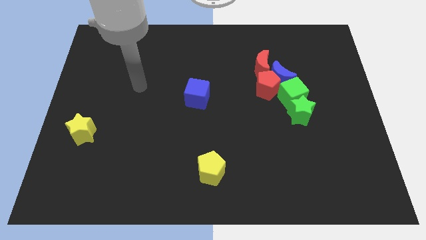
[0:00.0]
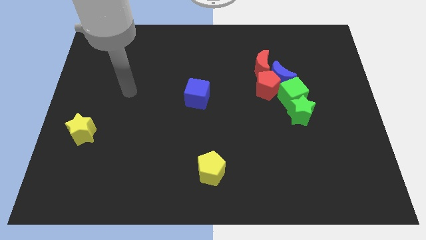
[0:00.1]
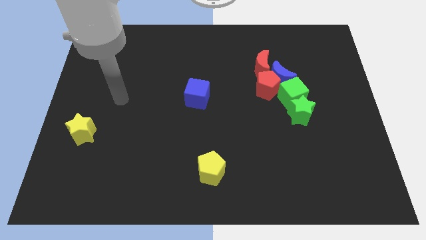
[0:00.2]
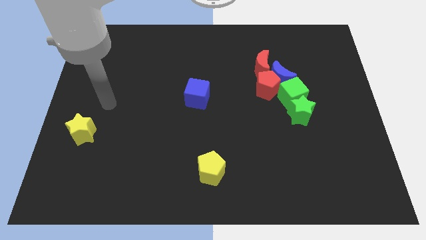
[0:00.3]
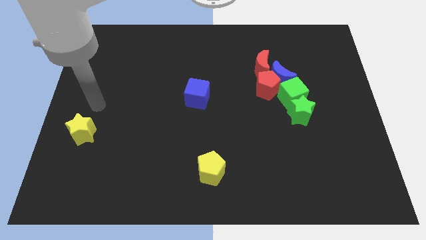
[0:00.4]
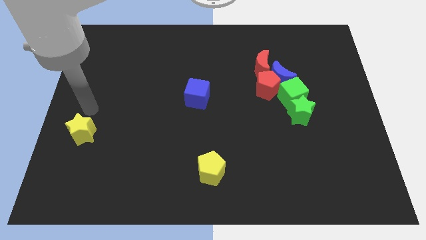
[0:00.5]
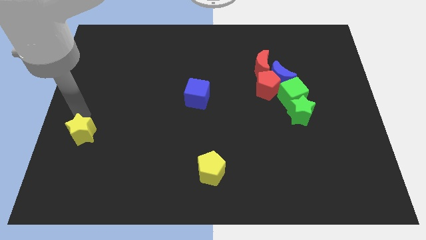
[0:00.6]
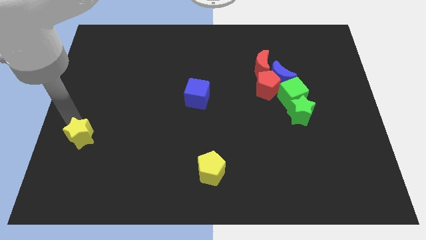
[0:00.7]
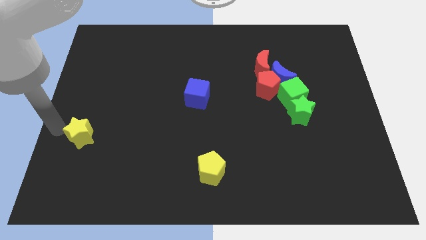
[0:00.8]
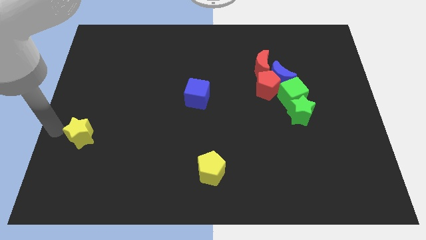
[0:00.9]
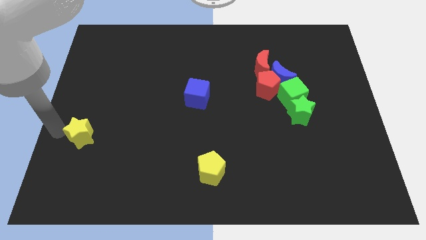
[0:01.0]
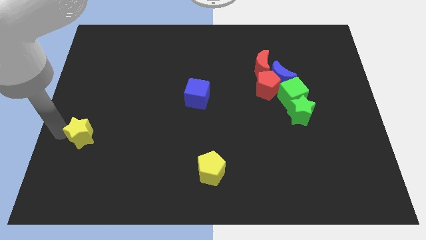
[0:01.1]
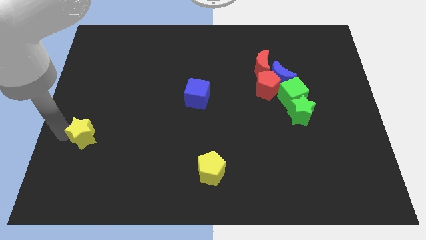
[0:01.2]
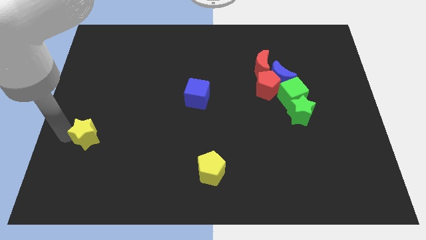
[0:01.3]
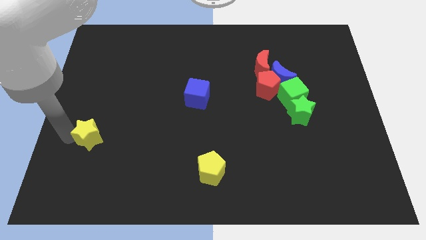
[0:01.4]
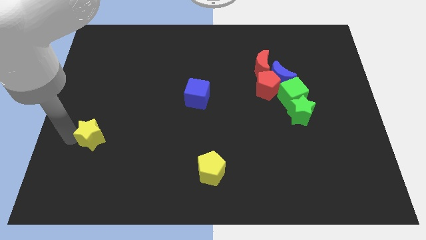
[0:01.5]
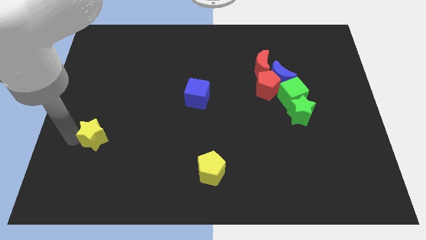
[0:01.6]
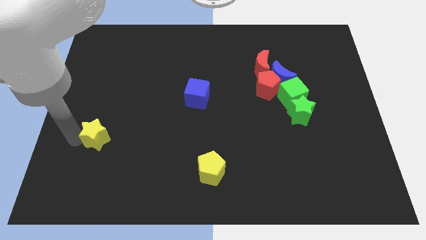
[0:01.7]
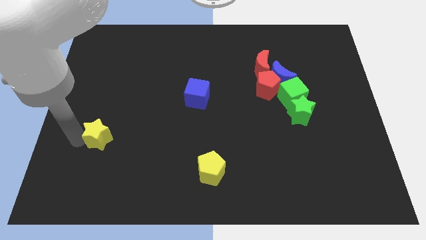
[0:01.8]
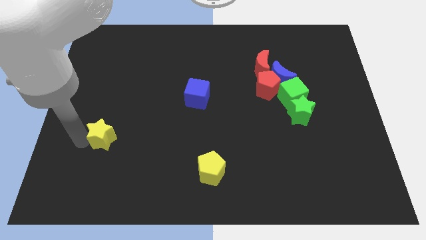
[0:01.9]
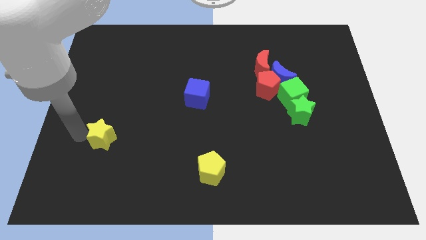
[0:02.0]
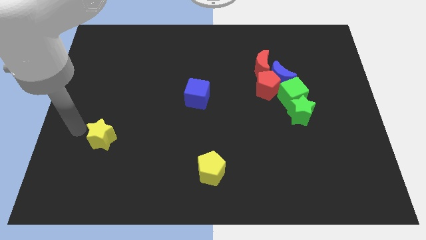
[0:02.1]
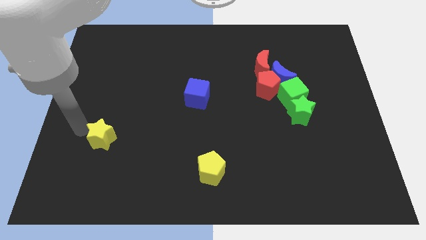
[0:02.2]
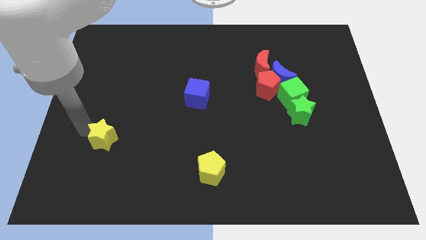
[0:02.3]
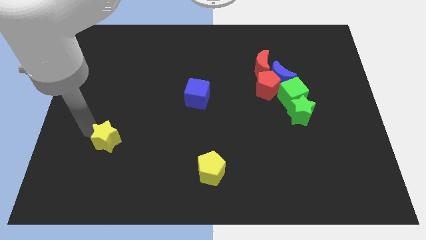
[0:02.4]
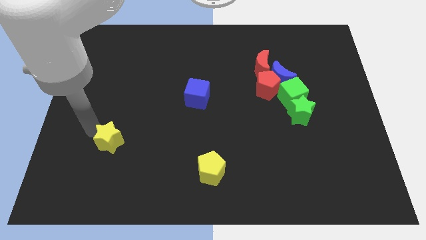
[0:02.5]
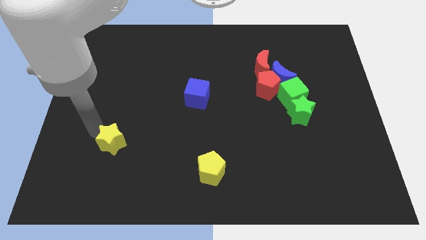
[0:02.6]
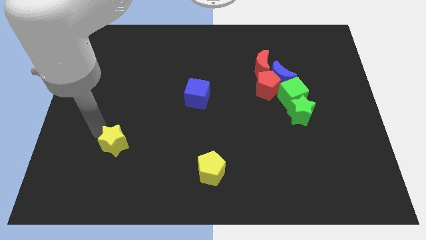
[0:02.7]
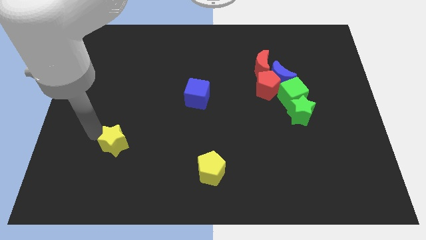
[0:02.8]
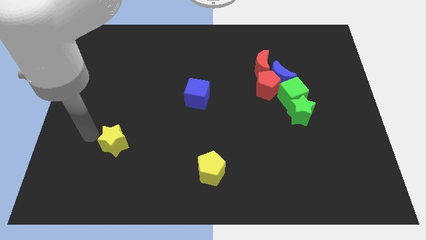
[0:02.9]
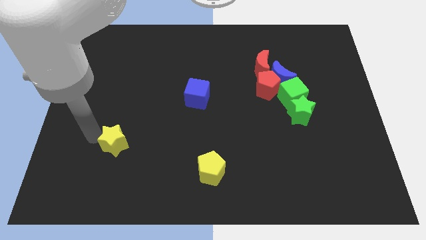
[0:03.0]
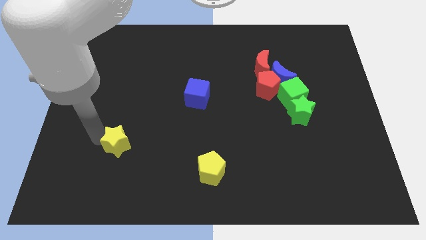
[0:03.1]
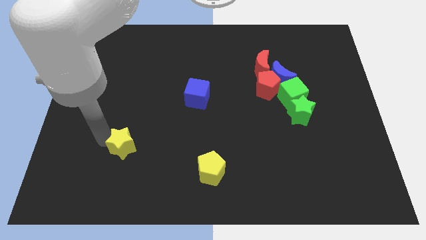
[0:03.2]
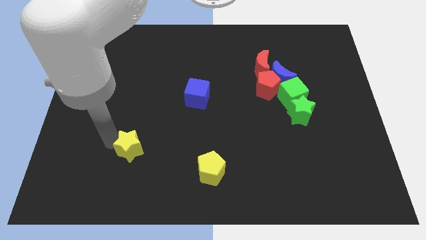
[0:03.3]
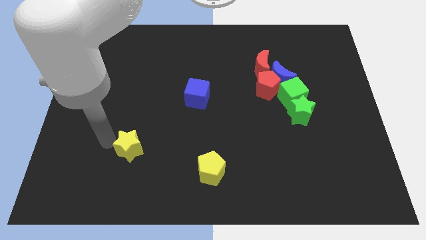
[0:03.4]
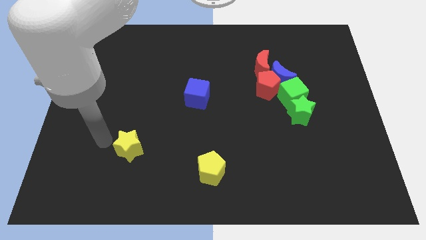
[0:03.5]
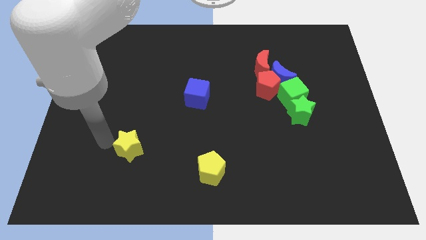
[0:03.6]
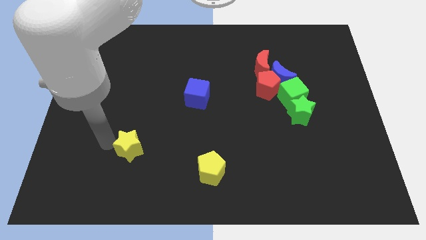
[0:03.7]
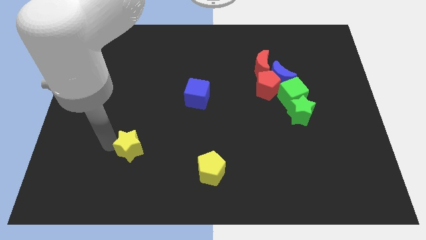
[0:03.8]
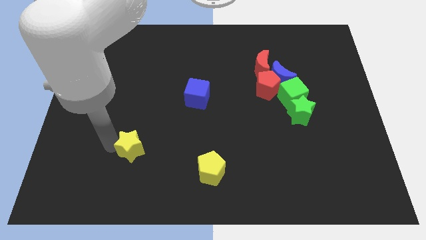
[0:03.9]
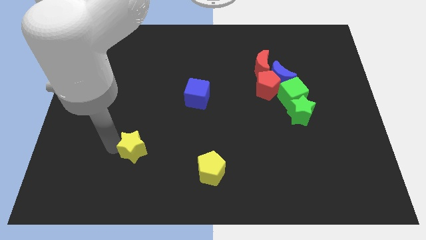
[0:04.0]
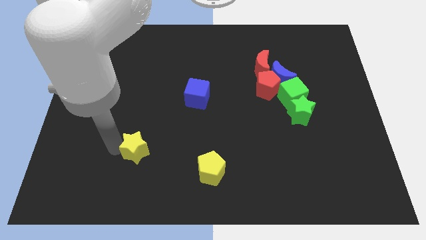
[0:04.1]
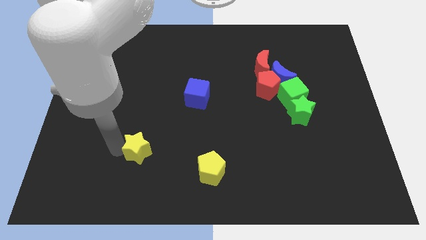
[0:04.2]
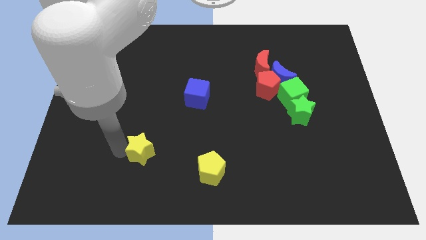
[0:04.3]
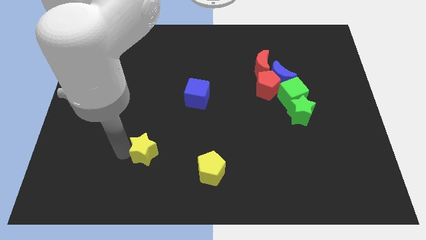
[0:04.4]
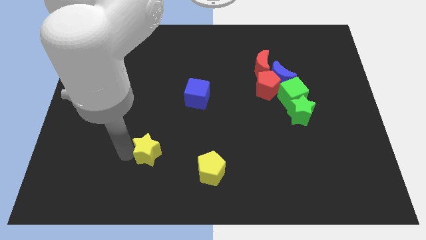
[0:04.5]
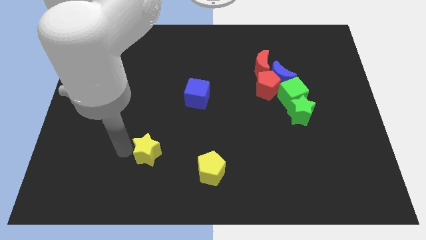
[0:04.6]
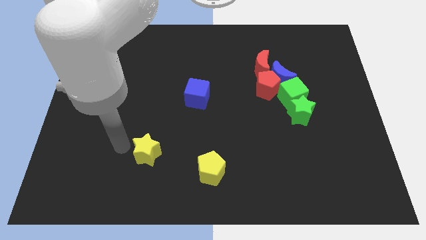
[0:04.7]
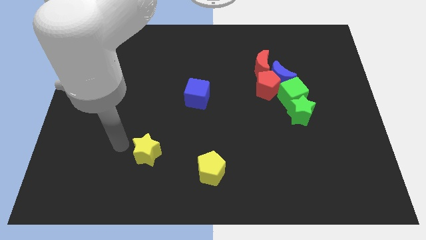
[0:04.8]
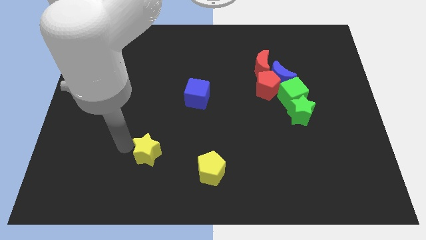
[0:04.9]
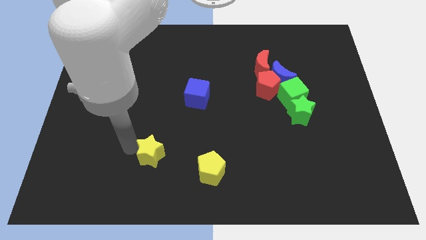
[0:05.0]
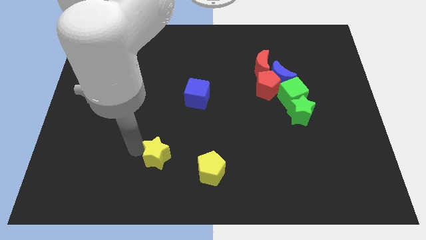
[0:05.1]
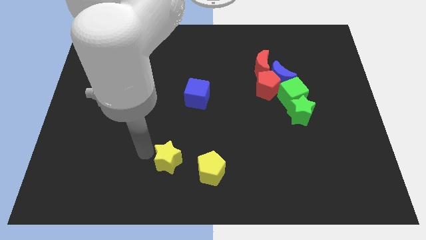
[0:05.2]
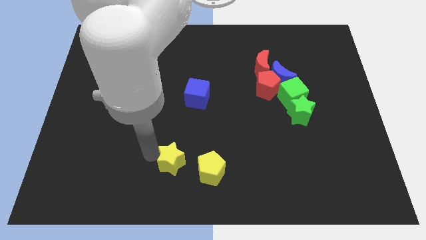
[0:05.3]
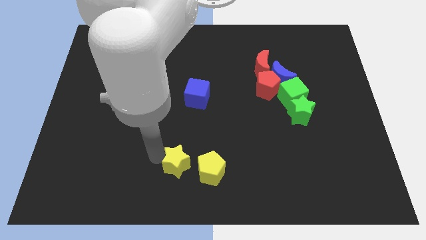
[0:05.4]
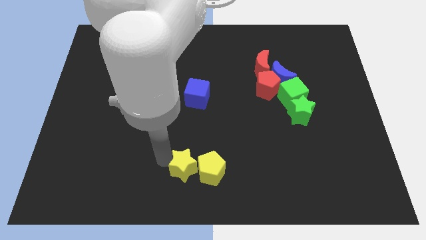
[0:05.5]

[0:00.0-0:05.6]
slide the yellow star to the yellow pentagon

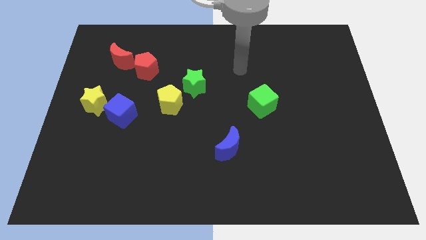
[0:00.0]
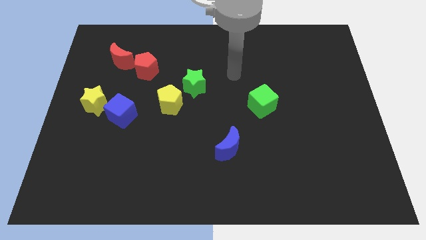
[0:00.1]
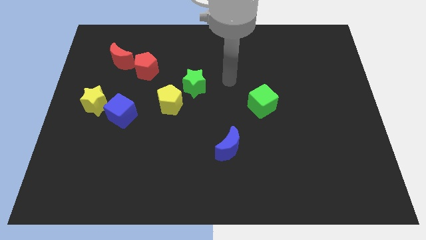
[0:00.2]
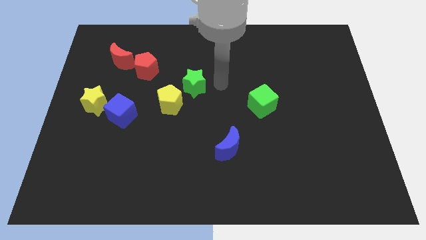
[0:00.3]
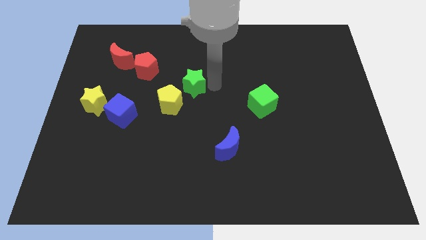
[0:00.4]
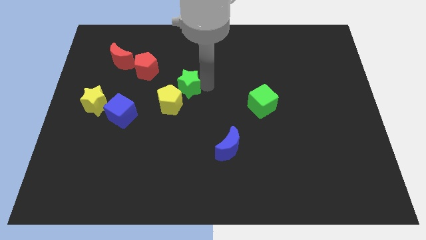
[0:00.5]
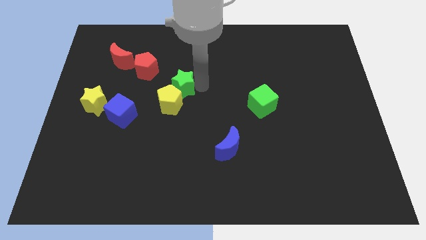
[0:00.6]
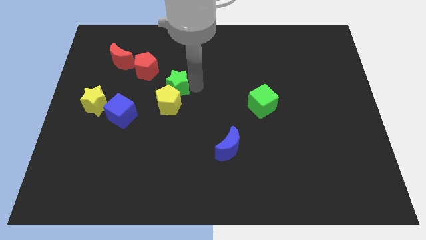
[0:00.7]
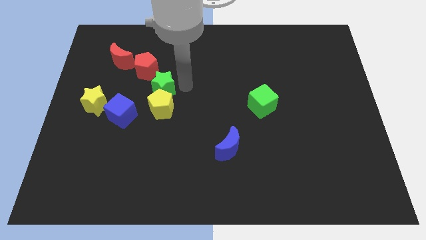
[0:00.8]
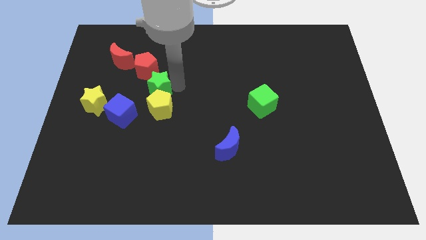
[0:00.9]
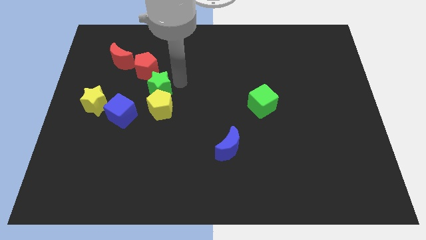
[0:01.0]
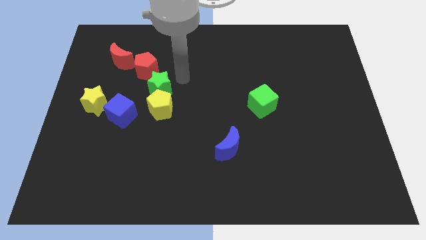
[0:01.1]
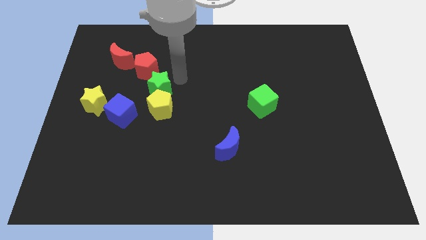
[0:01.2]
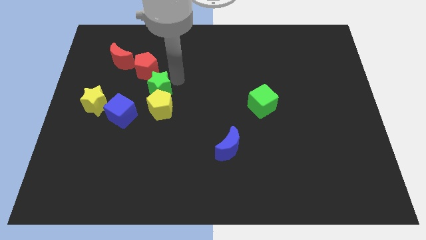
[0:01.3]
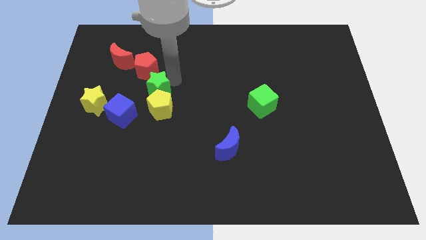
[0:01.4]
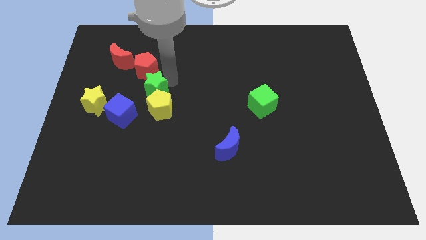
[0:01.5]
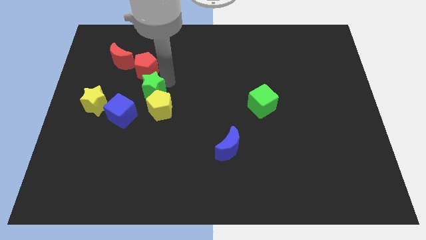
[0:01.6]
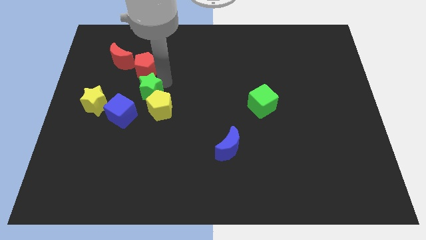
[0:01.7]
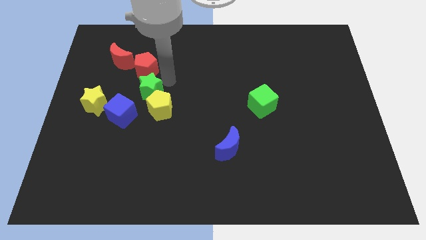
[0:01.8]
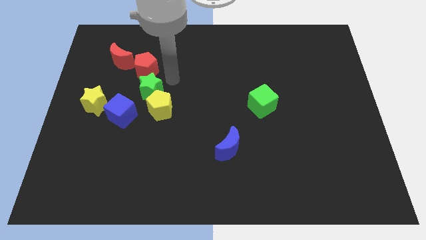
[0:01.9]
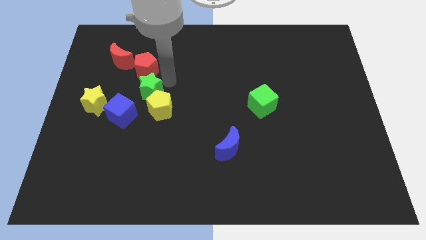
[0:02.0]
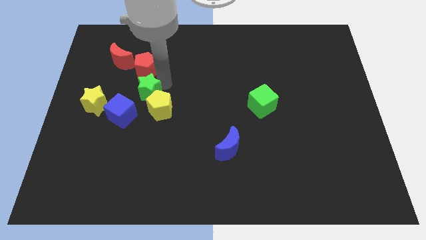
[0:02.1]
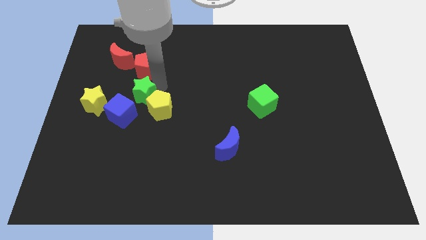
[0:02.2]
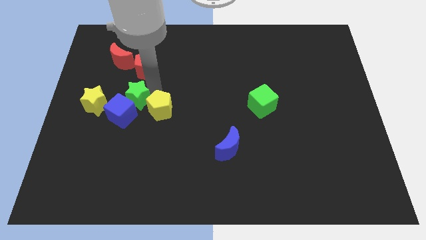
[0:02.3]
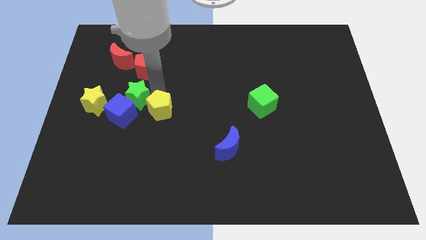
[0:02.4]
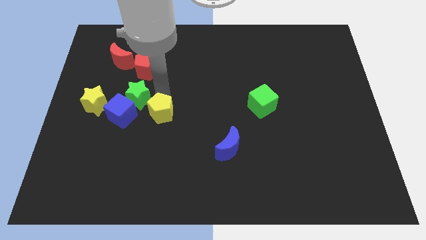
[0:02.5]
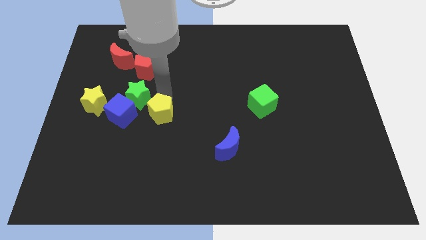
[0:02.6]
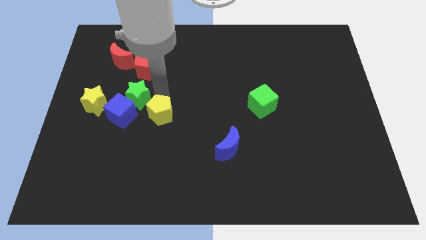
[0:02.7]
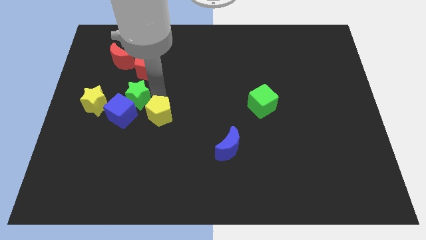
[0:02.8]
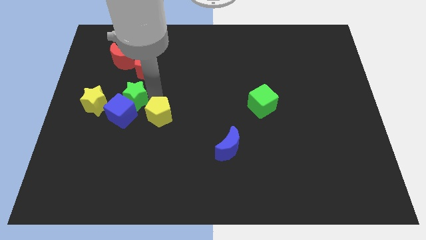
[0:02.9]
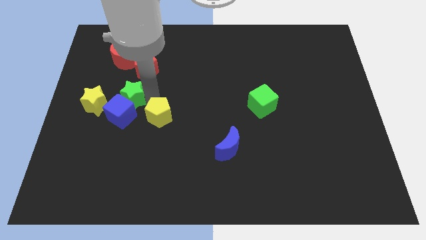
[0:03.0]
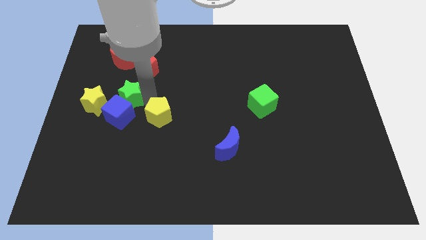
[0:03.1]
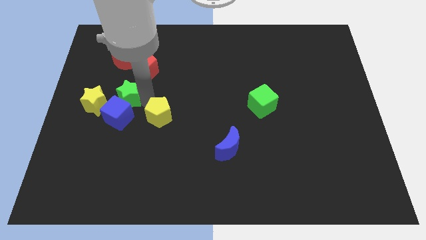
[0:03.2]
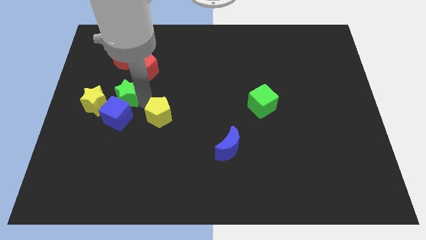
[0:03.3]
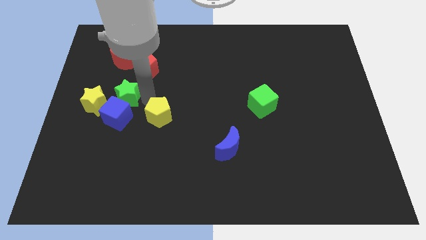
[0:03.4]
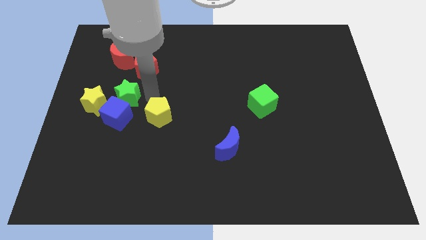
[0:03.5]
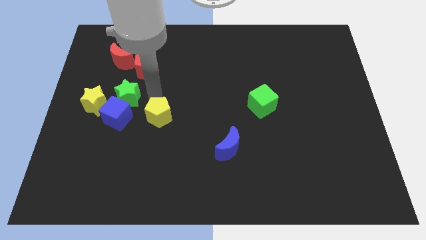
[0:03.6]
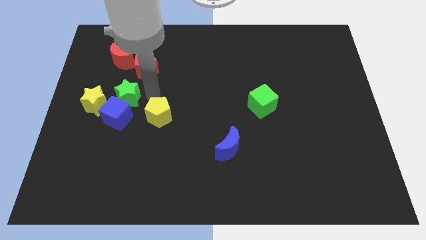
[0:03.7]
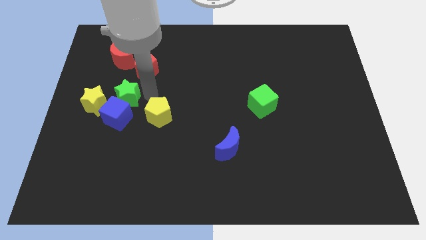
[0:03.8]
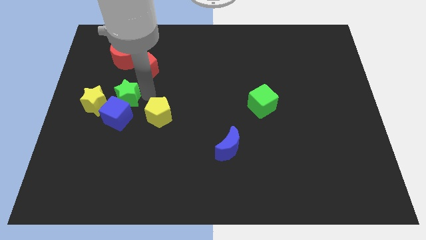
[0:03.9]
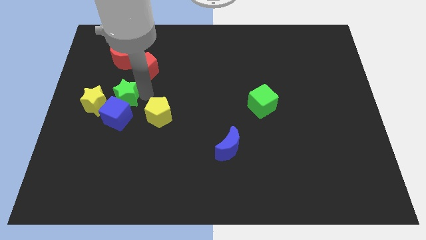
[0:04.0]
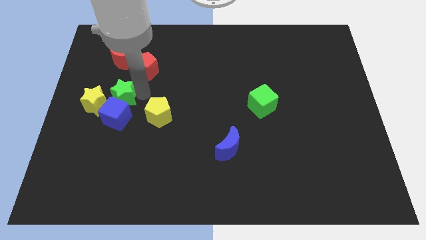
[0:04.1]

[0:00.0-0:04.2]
move the green star close to the yellow star
